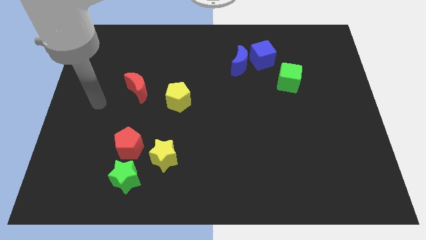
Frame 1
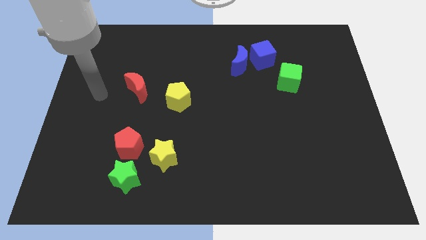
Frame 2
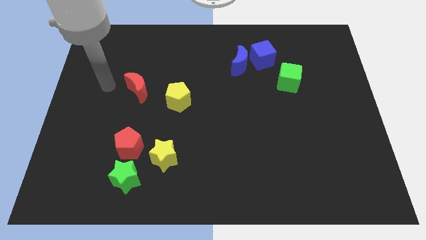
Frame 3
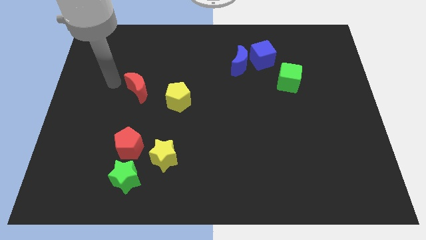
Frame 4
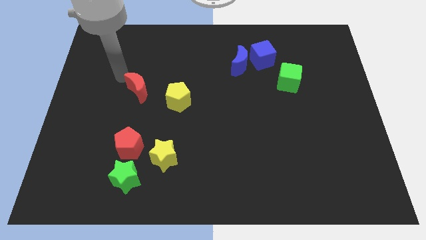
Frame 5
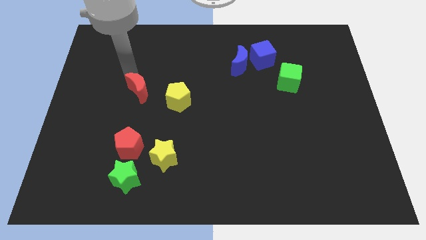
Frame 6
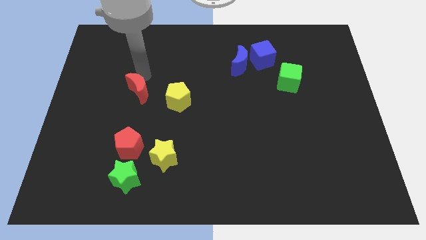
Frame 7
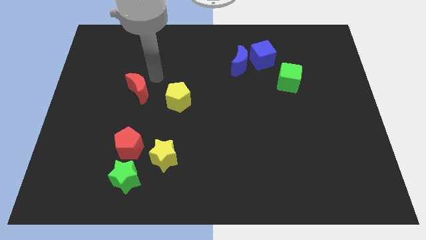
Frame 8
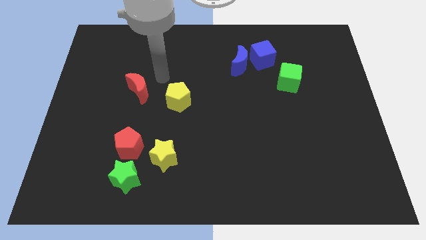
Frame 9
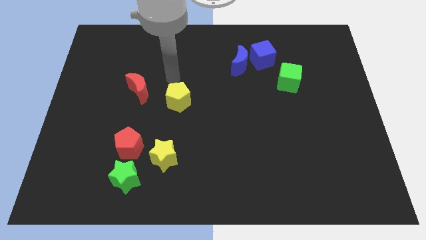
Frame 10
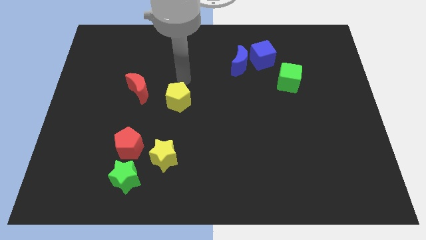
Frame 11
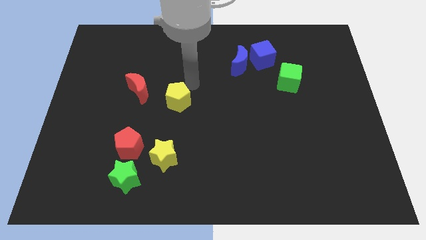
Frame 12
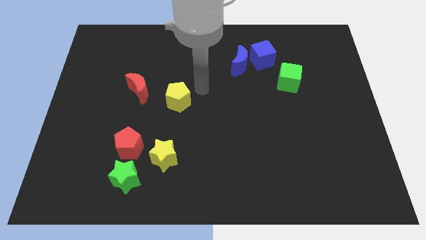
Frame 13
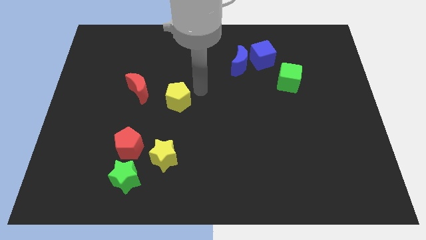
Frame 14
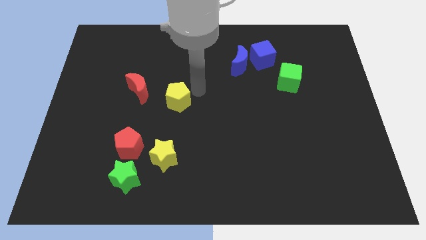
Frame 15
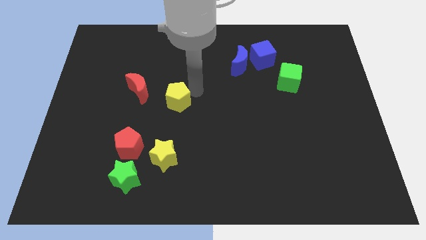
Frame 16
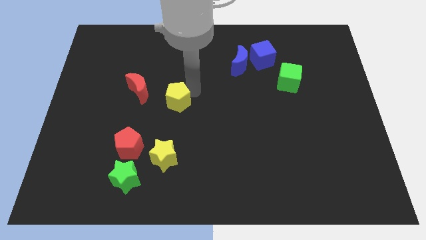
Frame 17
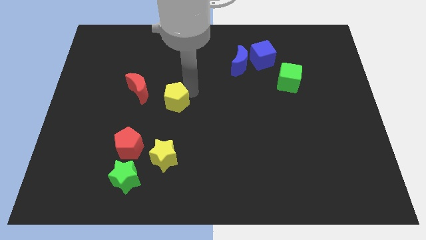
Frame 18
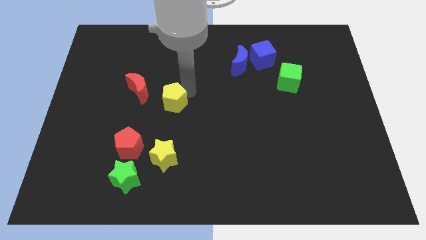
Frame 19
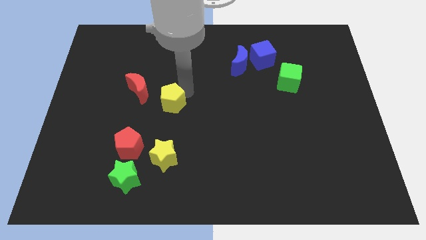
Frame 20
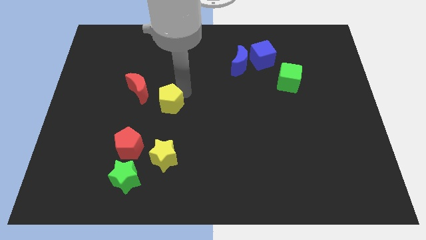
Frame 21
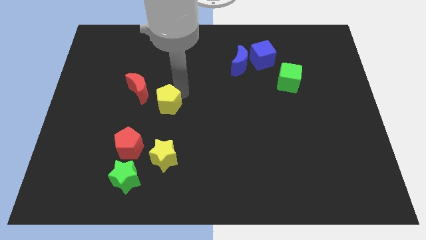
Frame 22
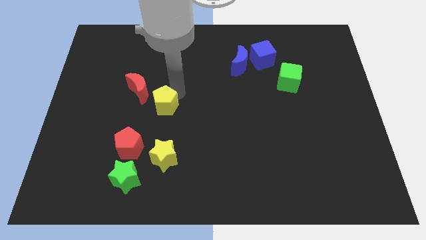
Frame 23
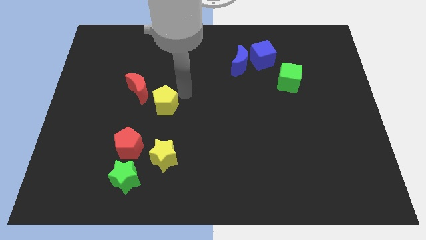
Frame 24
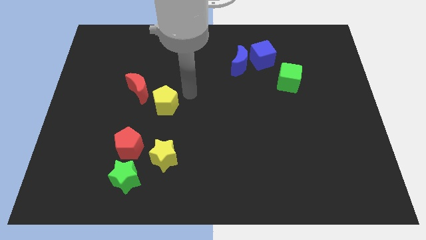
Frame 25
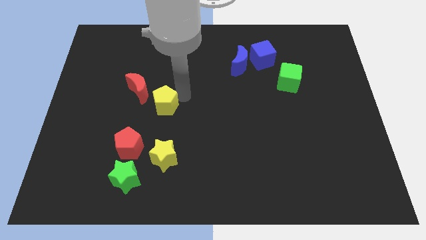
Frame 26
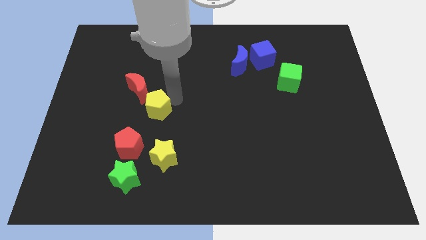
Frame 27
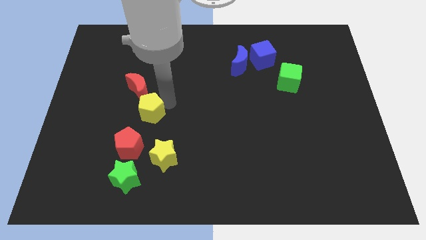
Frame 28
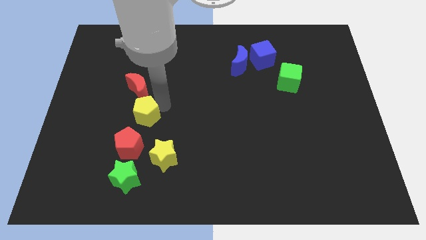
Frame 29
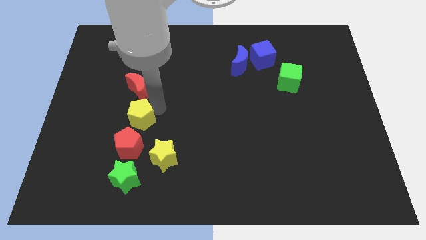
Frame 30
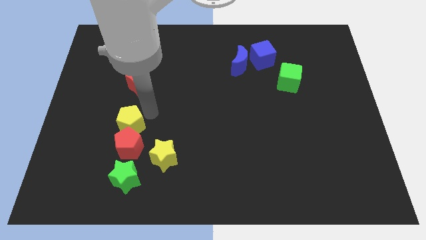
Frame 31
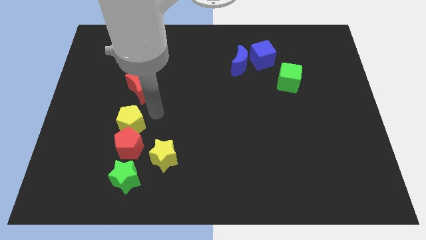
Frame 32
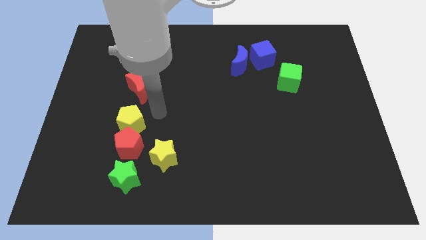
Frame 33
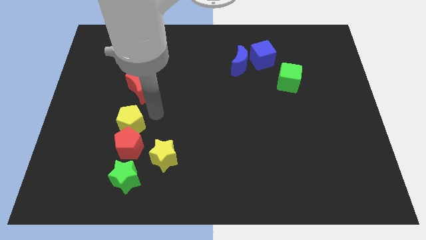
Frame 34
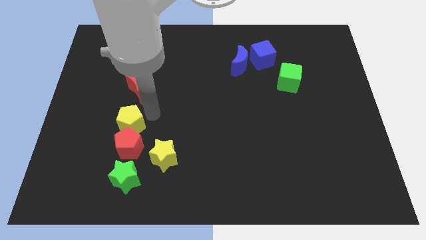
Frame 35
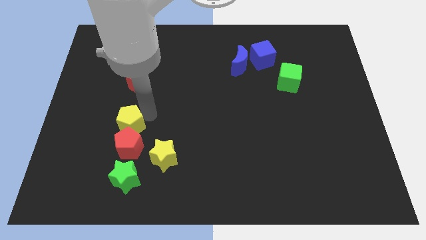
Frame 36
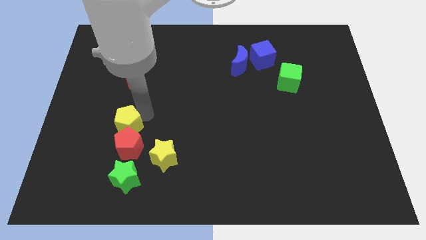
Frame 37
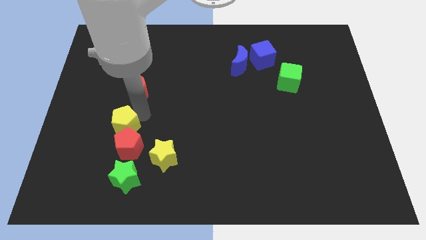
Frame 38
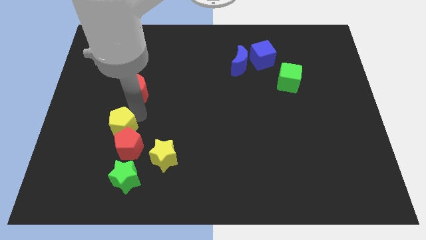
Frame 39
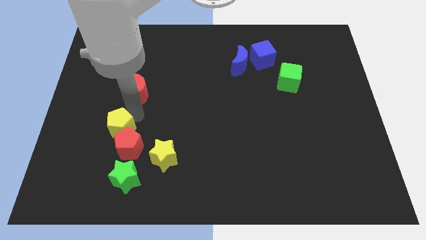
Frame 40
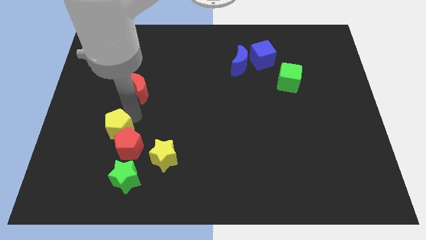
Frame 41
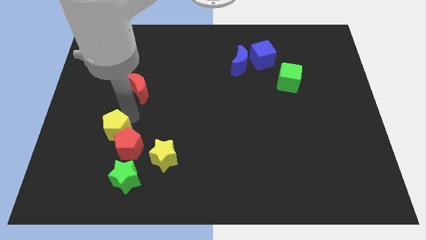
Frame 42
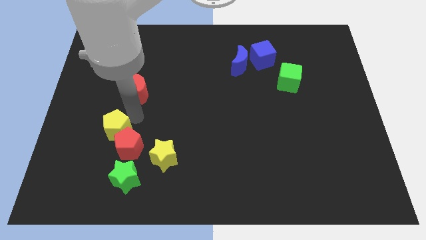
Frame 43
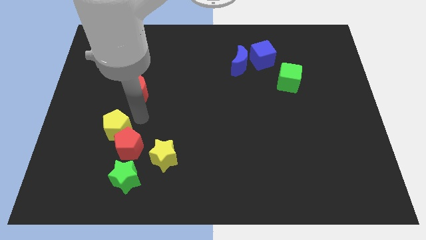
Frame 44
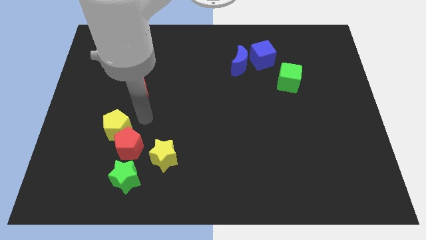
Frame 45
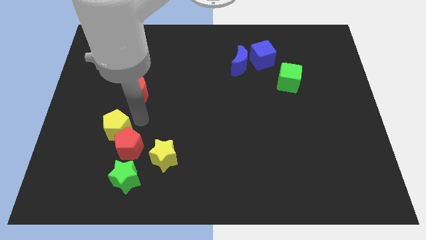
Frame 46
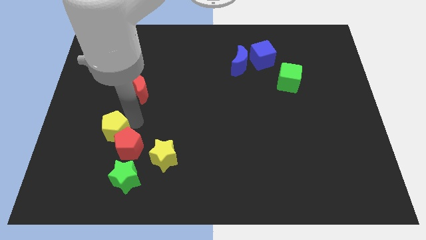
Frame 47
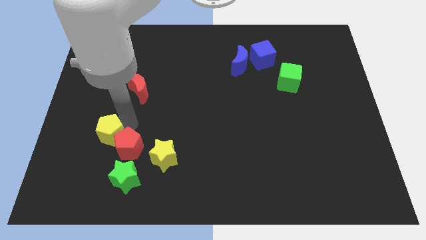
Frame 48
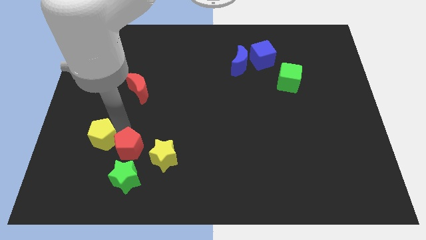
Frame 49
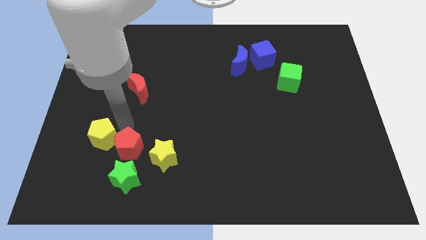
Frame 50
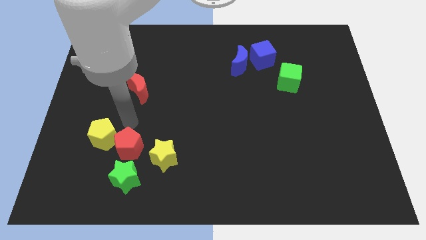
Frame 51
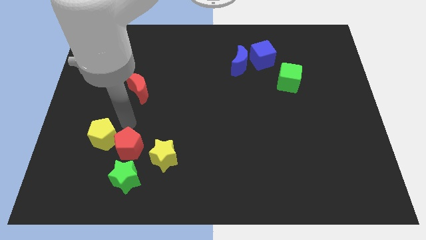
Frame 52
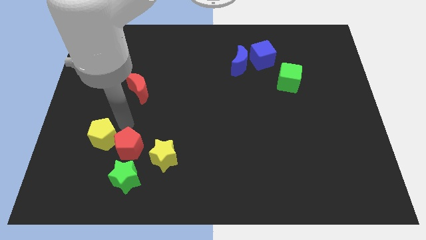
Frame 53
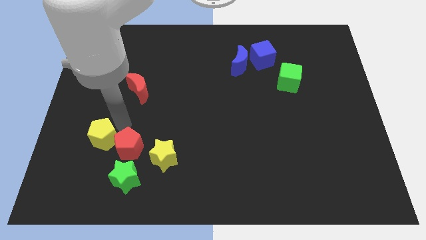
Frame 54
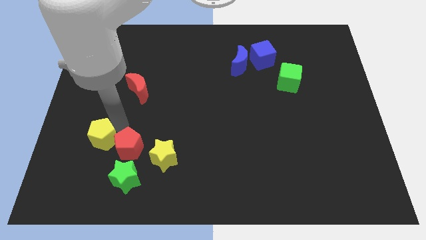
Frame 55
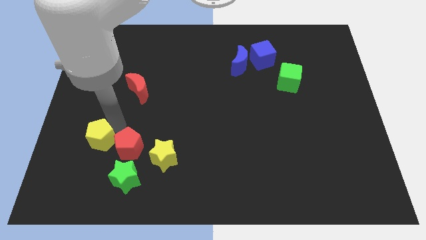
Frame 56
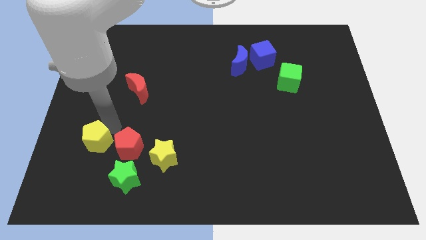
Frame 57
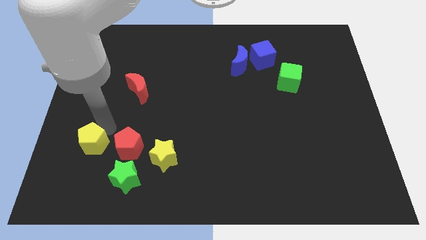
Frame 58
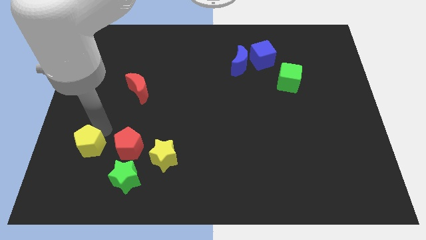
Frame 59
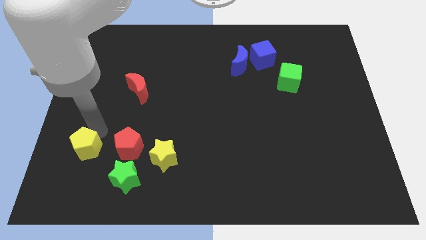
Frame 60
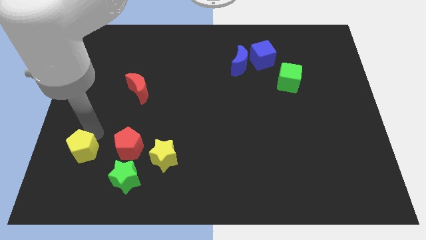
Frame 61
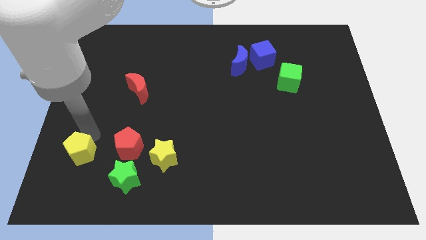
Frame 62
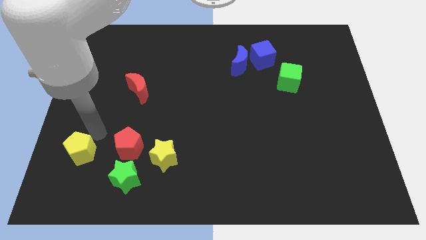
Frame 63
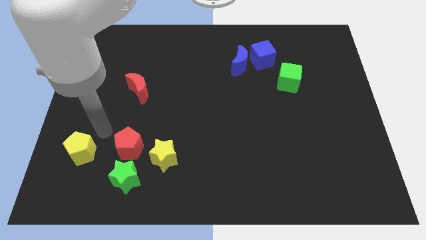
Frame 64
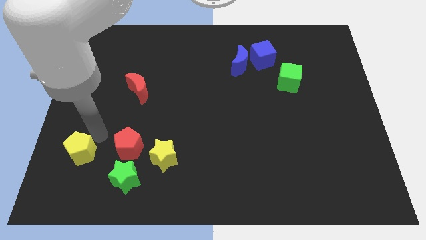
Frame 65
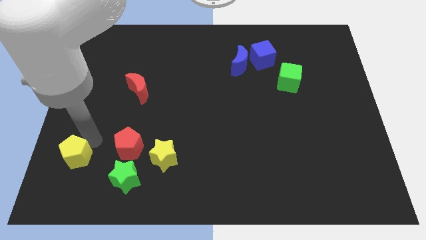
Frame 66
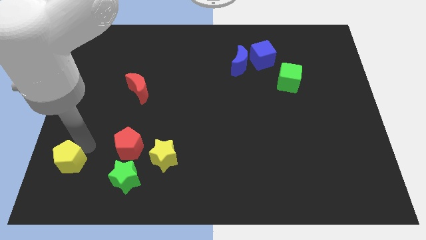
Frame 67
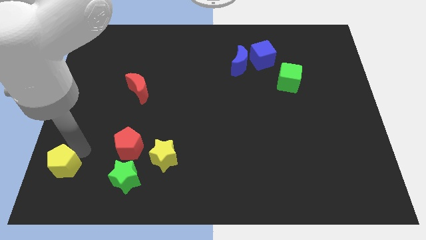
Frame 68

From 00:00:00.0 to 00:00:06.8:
push the yellow pentagon to the bottom left

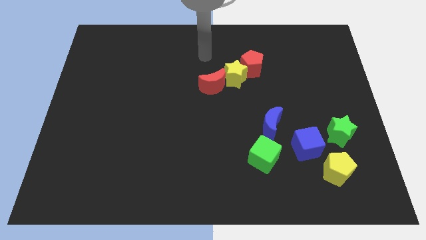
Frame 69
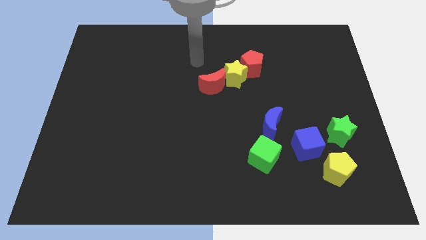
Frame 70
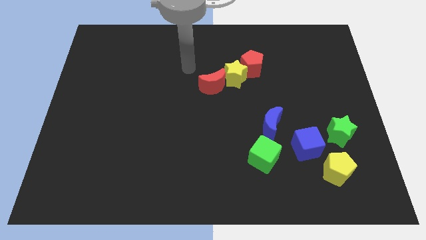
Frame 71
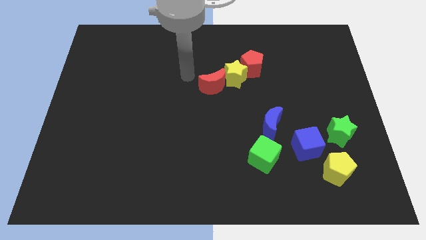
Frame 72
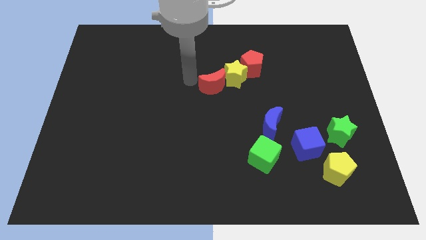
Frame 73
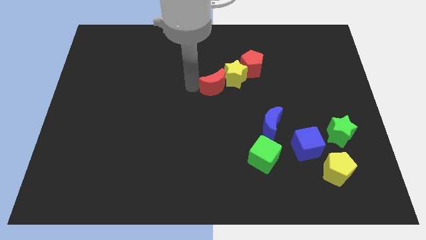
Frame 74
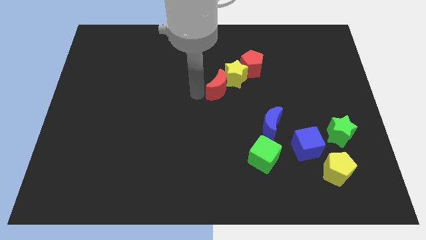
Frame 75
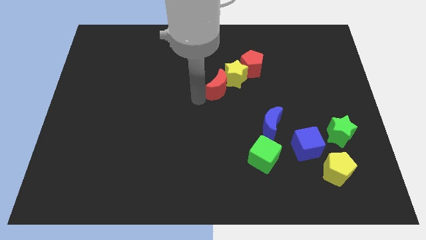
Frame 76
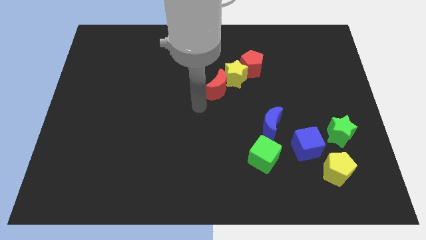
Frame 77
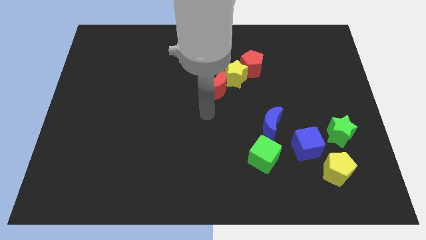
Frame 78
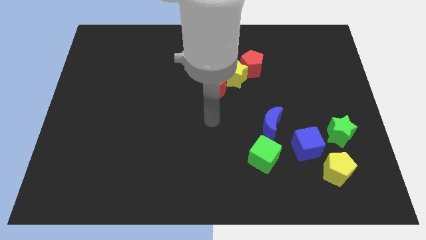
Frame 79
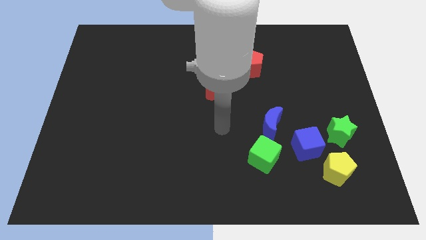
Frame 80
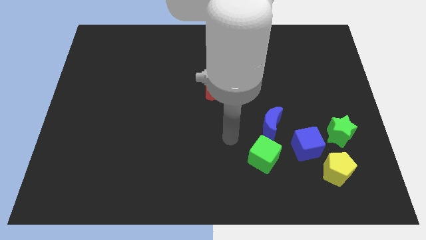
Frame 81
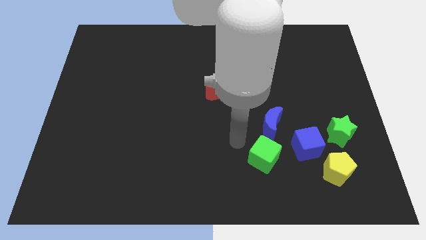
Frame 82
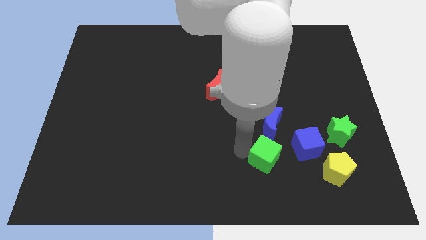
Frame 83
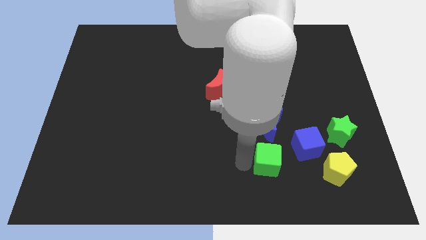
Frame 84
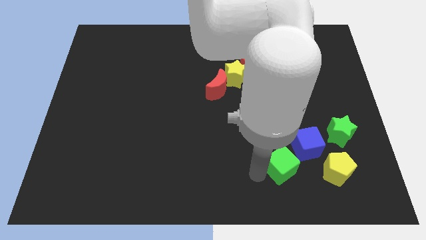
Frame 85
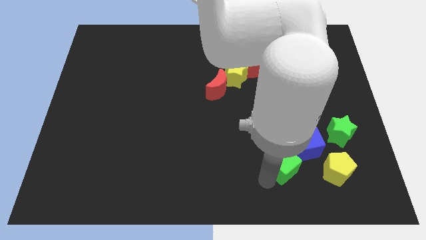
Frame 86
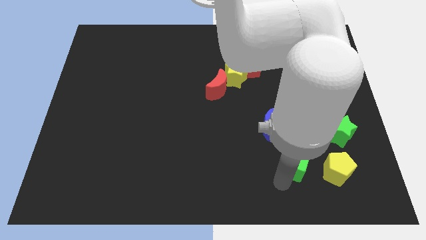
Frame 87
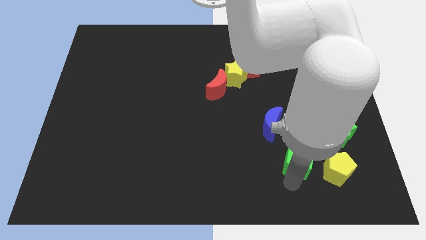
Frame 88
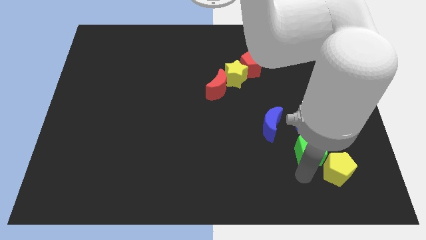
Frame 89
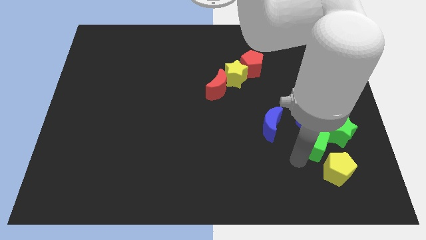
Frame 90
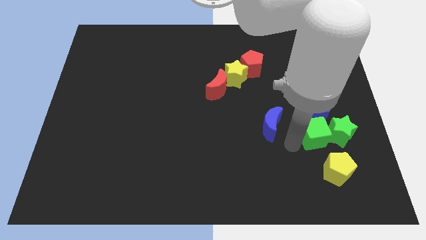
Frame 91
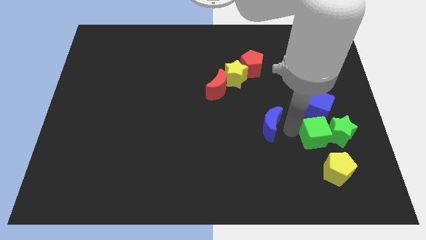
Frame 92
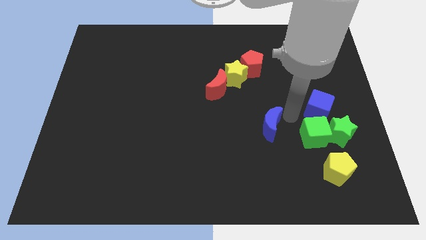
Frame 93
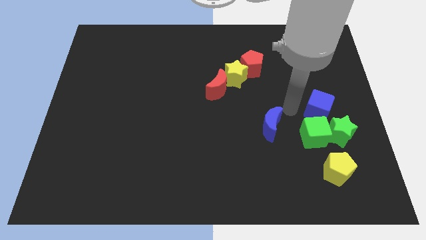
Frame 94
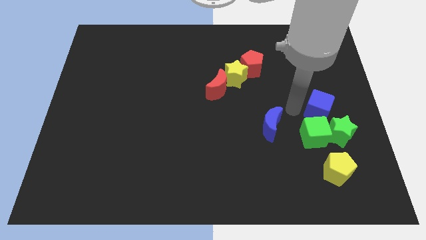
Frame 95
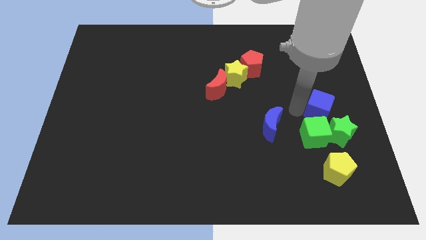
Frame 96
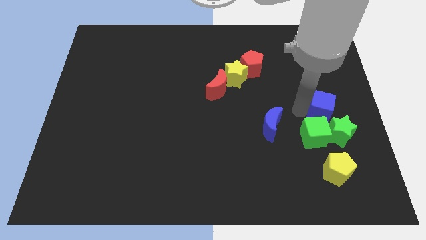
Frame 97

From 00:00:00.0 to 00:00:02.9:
push the blue cube to the right side of the board
